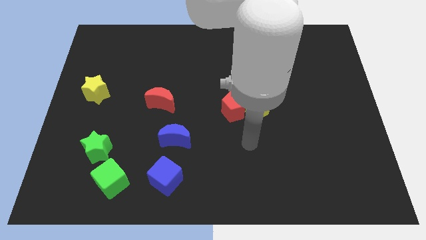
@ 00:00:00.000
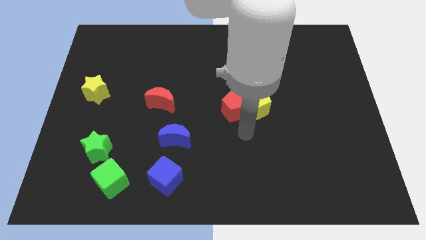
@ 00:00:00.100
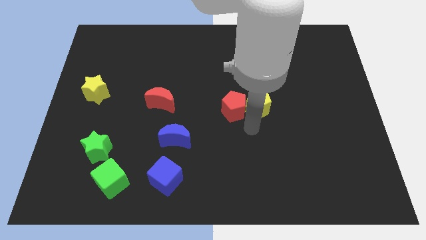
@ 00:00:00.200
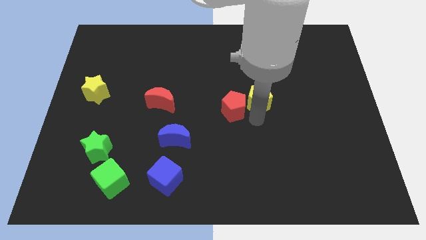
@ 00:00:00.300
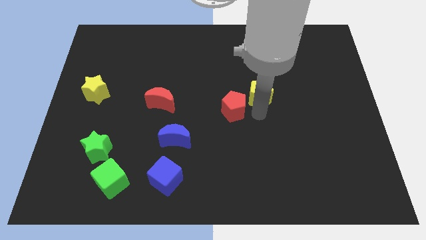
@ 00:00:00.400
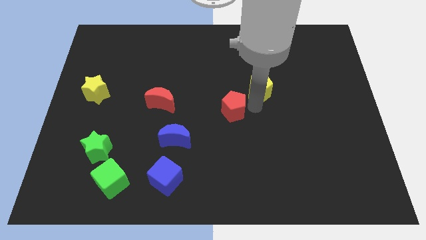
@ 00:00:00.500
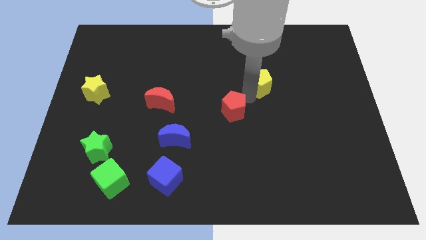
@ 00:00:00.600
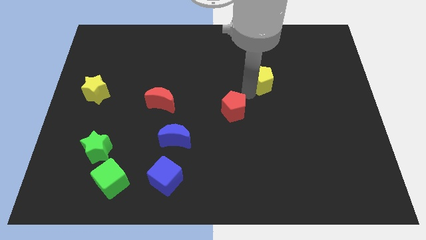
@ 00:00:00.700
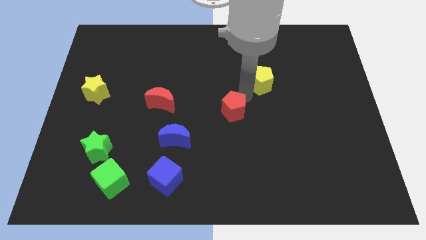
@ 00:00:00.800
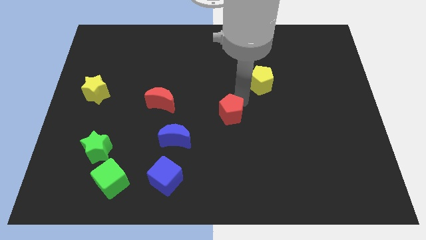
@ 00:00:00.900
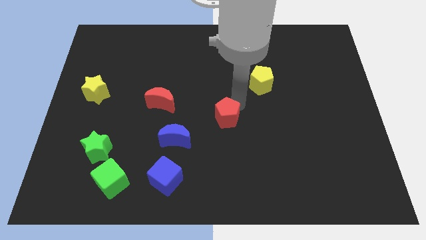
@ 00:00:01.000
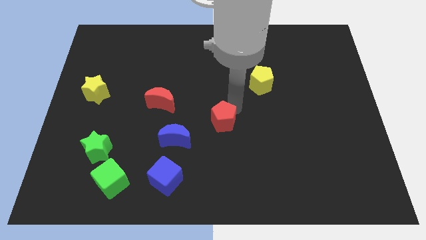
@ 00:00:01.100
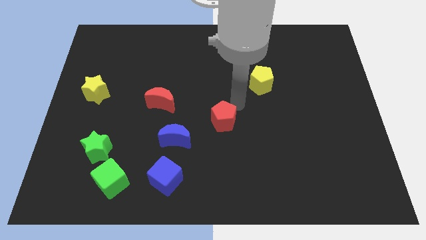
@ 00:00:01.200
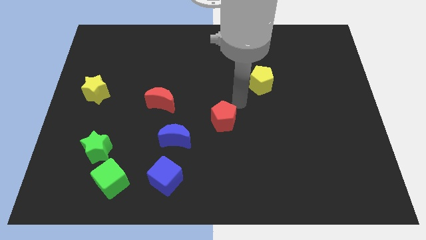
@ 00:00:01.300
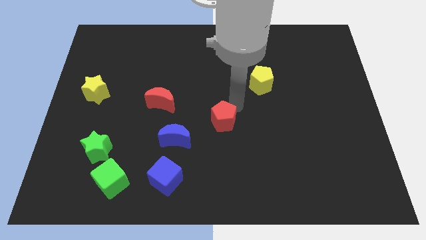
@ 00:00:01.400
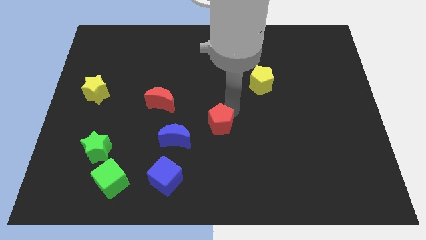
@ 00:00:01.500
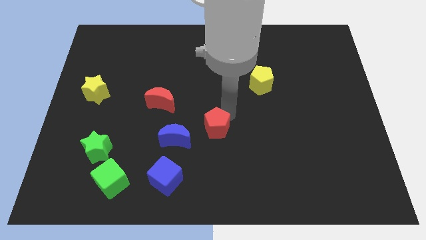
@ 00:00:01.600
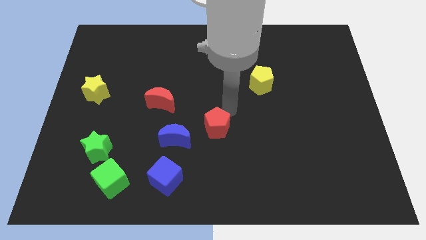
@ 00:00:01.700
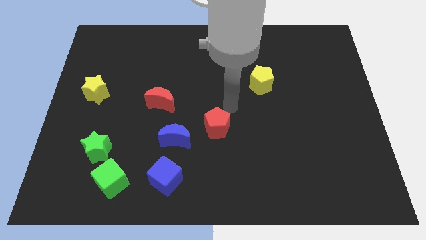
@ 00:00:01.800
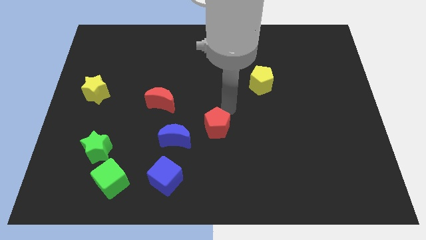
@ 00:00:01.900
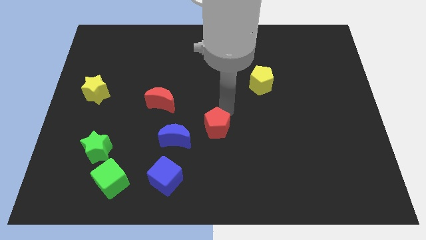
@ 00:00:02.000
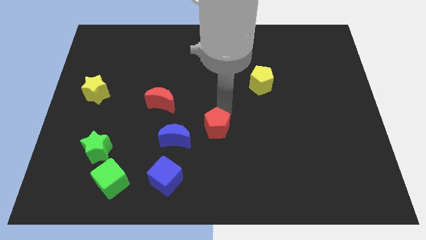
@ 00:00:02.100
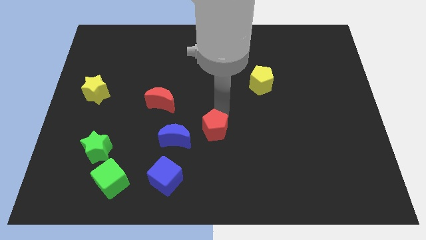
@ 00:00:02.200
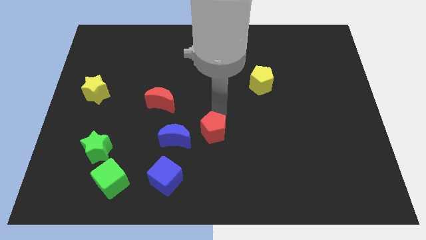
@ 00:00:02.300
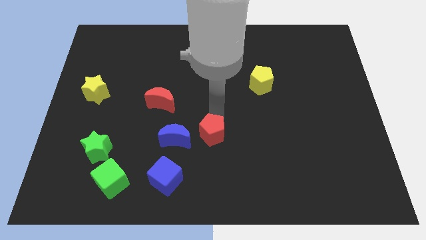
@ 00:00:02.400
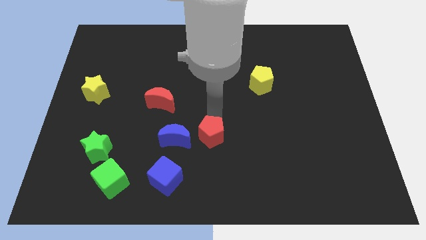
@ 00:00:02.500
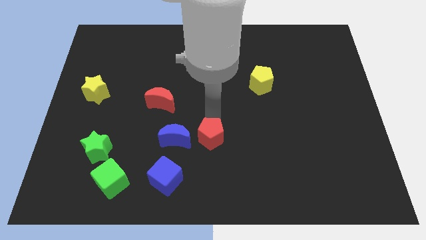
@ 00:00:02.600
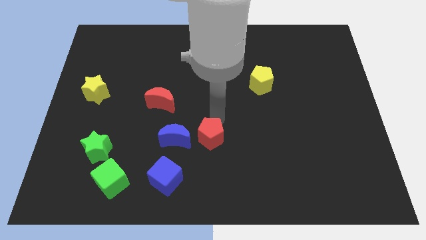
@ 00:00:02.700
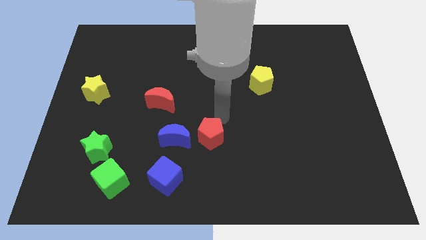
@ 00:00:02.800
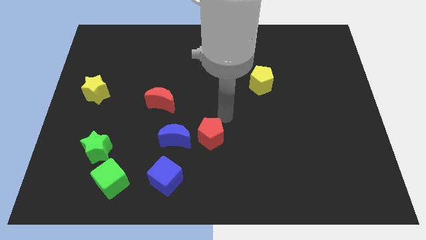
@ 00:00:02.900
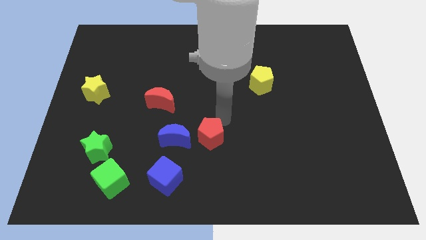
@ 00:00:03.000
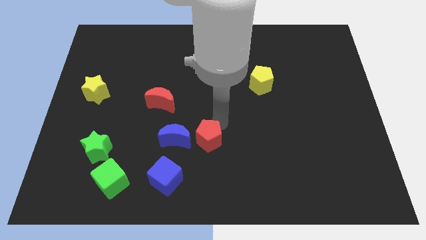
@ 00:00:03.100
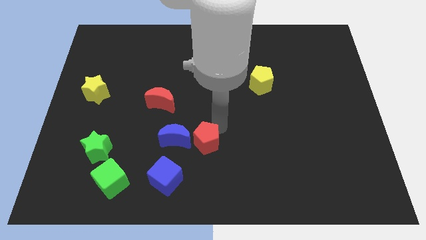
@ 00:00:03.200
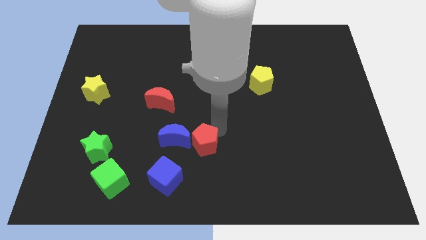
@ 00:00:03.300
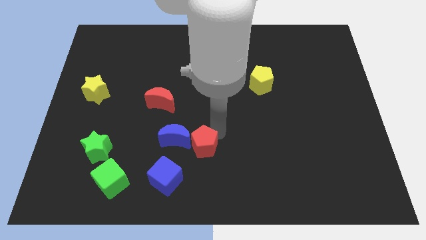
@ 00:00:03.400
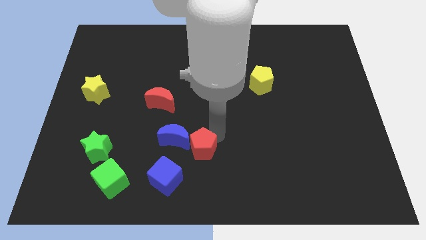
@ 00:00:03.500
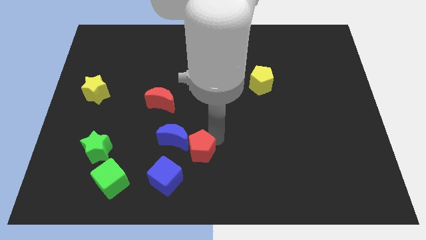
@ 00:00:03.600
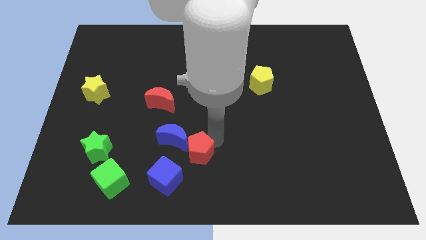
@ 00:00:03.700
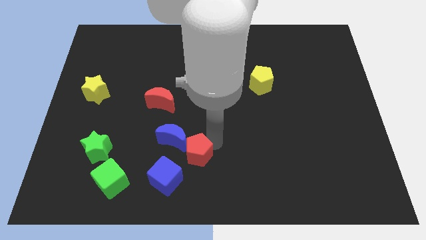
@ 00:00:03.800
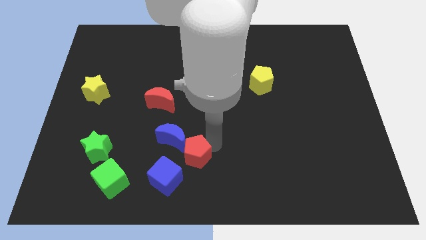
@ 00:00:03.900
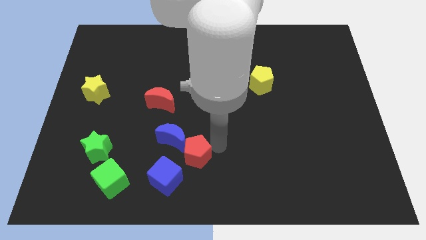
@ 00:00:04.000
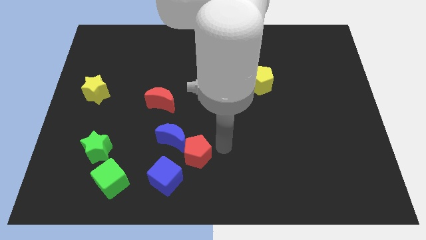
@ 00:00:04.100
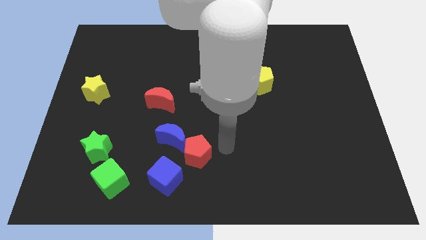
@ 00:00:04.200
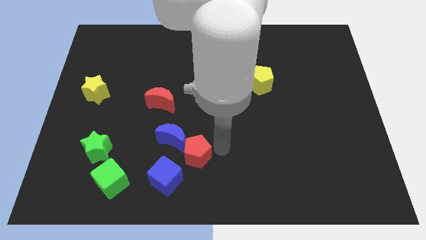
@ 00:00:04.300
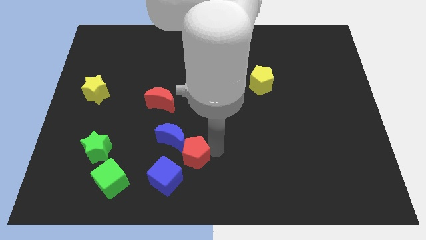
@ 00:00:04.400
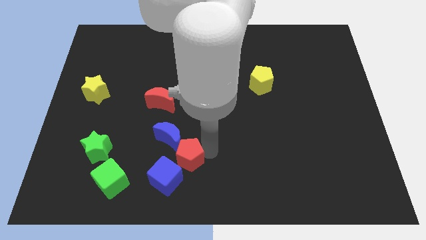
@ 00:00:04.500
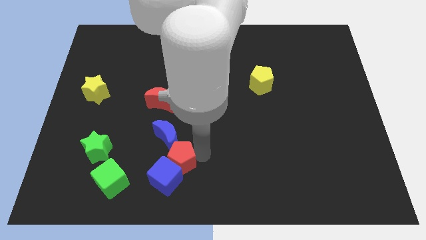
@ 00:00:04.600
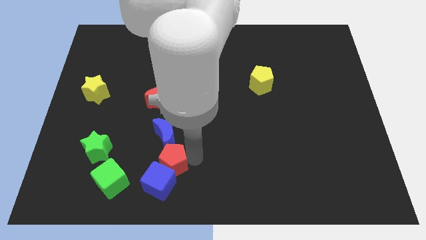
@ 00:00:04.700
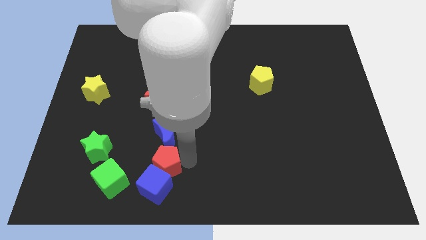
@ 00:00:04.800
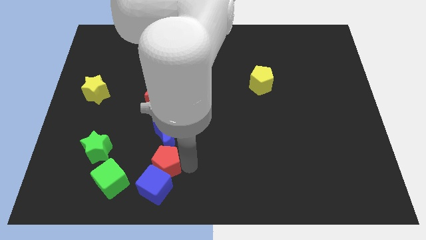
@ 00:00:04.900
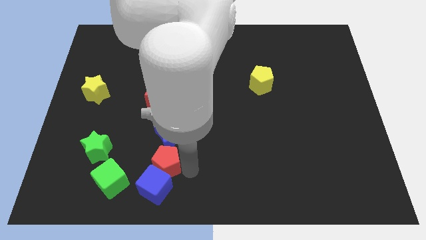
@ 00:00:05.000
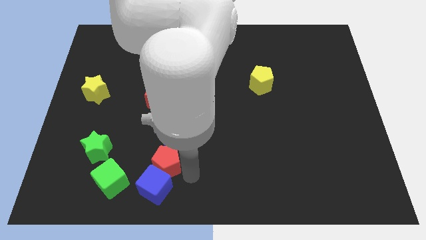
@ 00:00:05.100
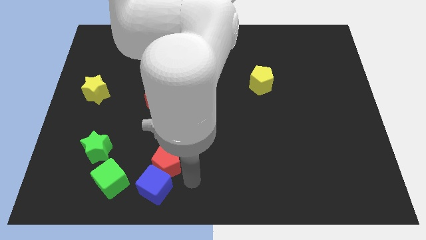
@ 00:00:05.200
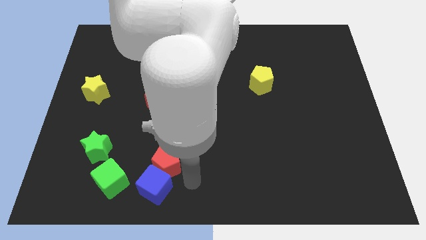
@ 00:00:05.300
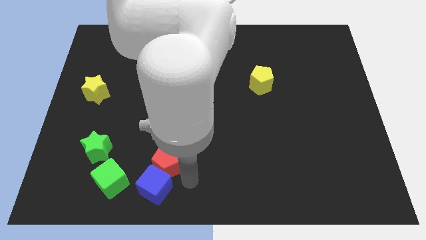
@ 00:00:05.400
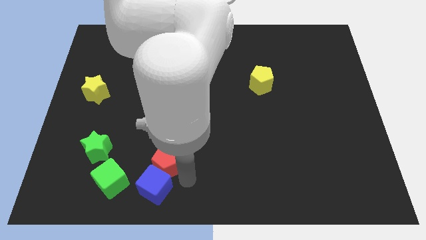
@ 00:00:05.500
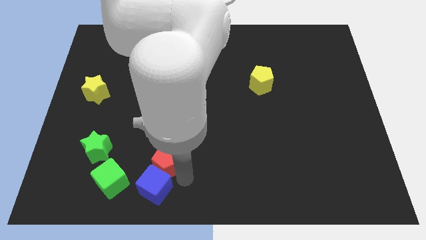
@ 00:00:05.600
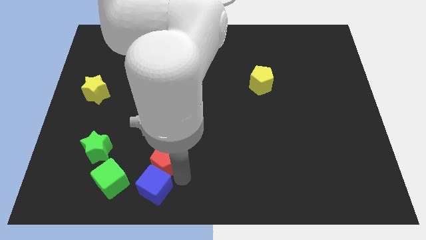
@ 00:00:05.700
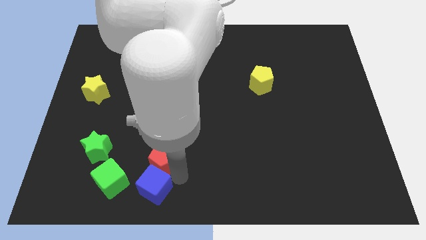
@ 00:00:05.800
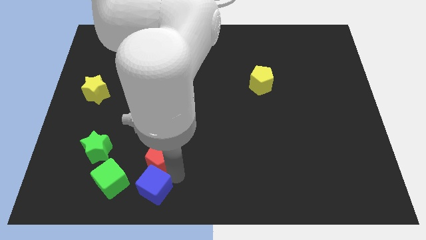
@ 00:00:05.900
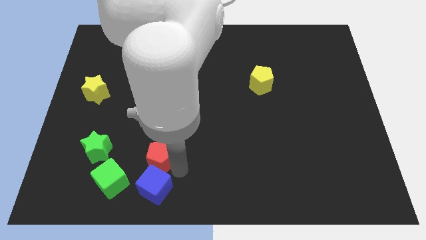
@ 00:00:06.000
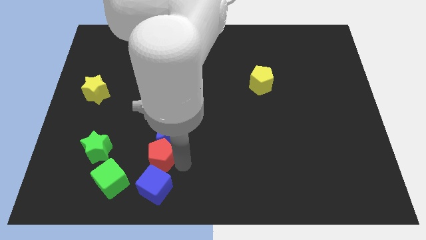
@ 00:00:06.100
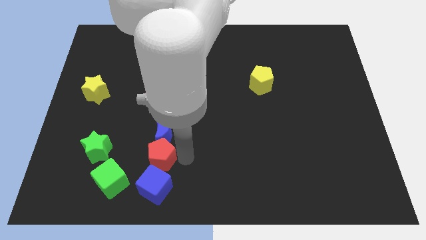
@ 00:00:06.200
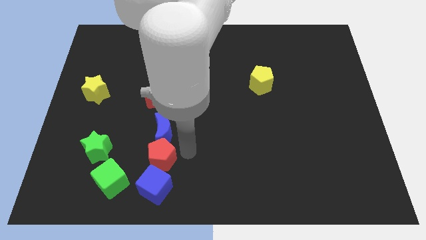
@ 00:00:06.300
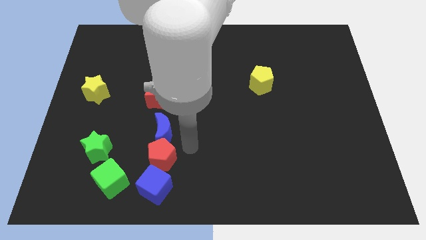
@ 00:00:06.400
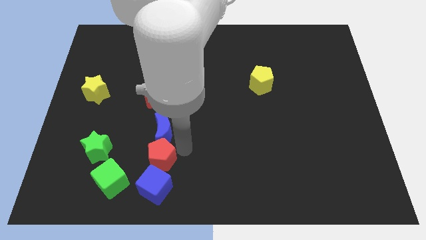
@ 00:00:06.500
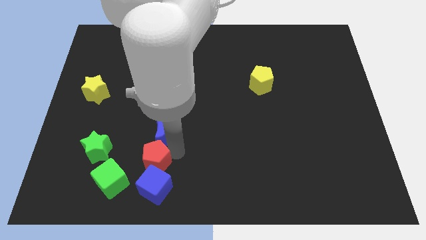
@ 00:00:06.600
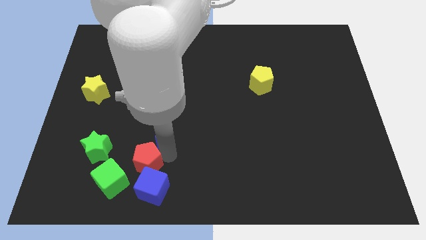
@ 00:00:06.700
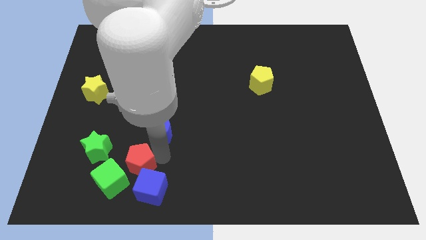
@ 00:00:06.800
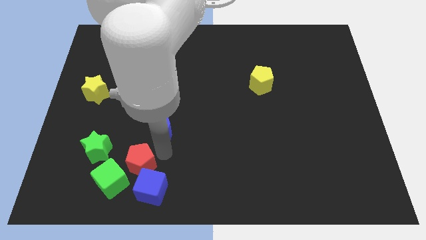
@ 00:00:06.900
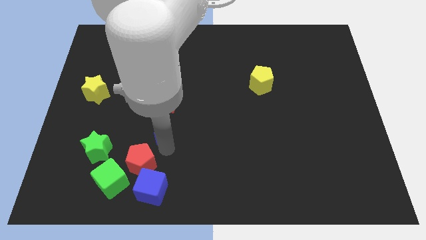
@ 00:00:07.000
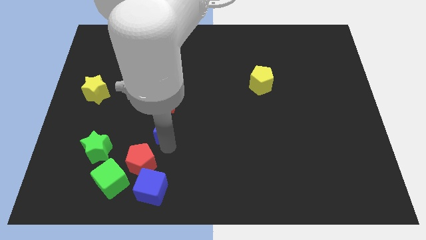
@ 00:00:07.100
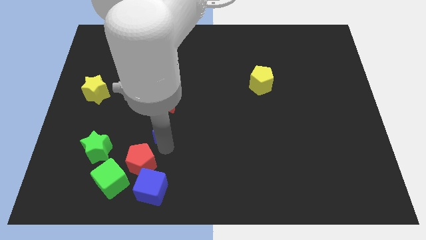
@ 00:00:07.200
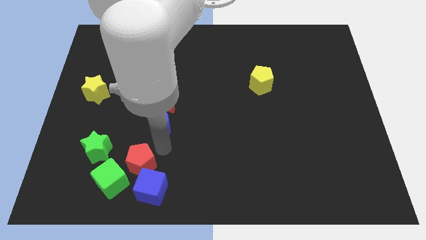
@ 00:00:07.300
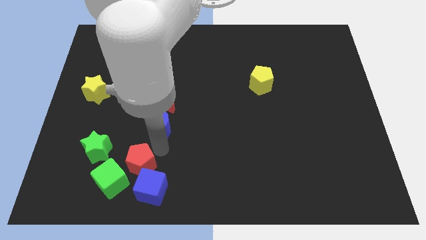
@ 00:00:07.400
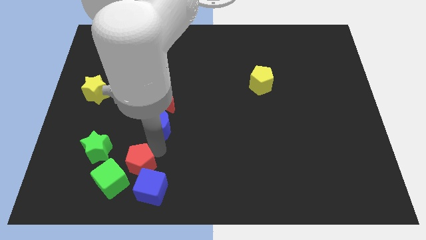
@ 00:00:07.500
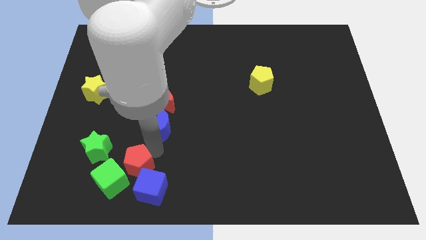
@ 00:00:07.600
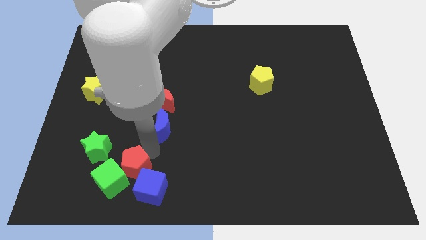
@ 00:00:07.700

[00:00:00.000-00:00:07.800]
push the red pentagon close to the green cube
